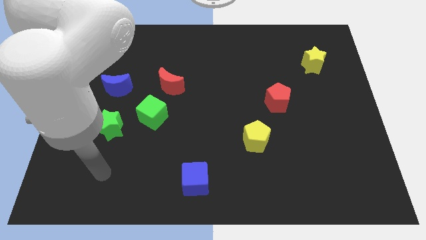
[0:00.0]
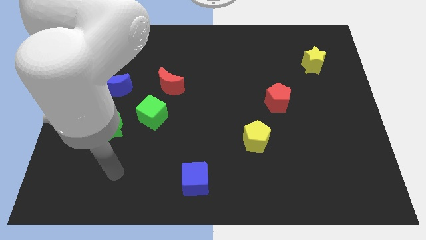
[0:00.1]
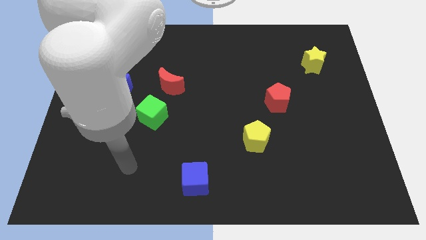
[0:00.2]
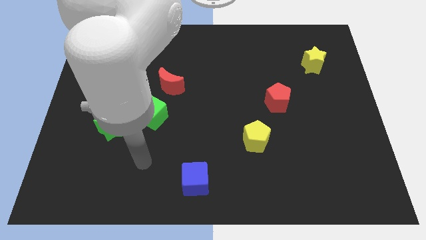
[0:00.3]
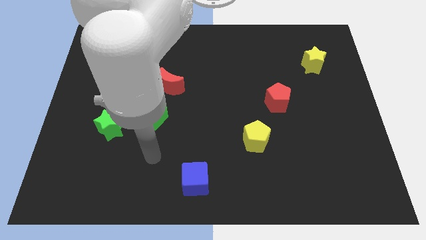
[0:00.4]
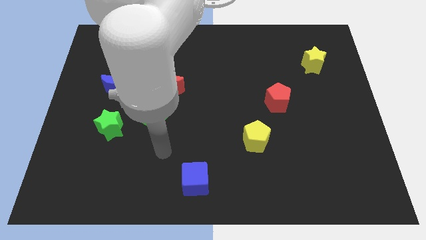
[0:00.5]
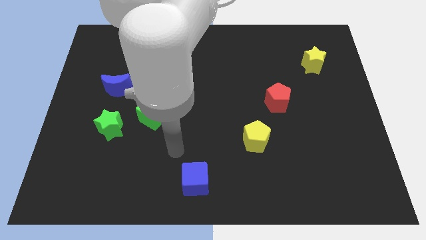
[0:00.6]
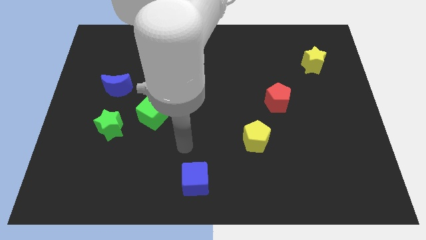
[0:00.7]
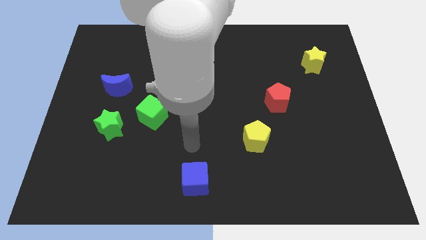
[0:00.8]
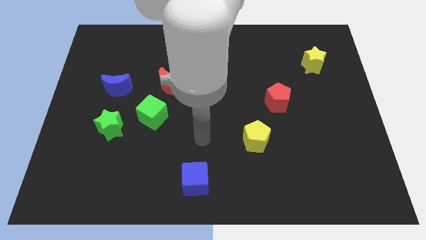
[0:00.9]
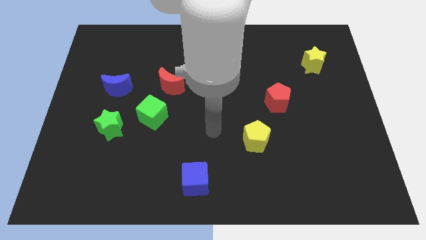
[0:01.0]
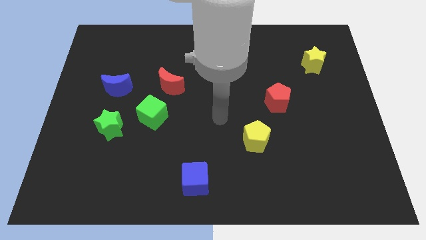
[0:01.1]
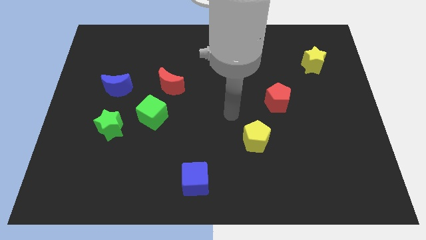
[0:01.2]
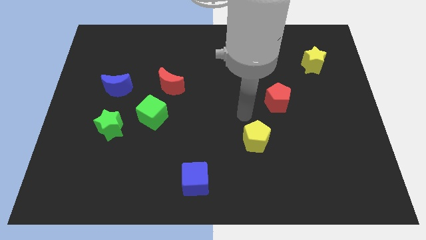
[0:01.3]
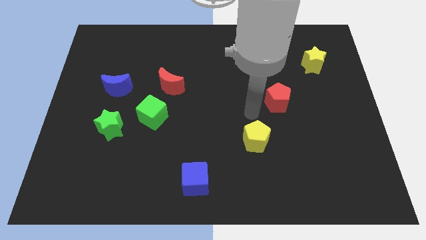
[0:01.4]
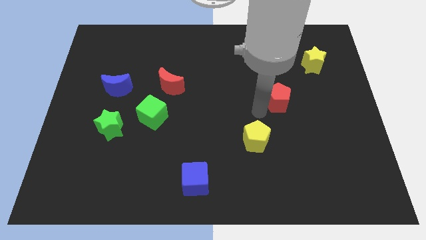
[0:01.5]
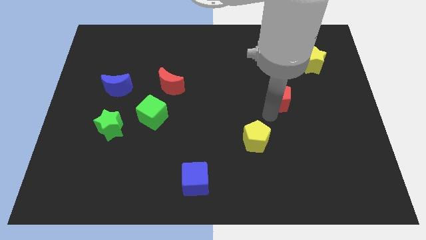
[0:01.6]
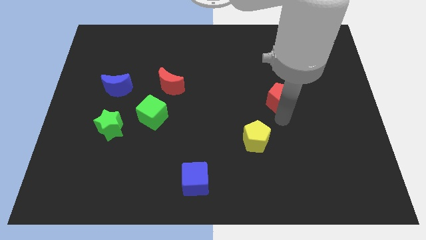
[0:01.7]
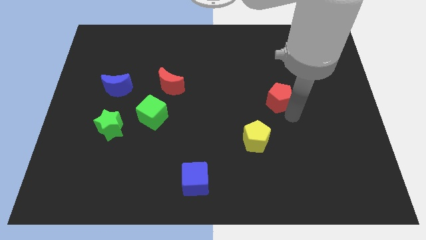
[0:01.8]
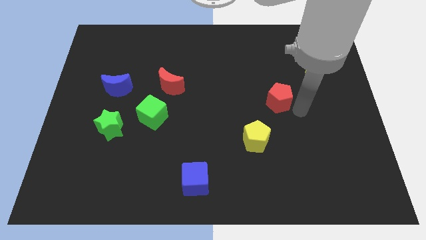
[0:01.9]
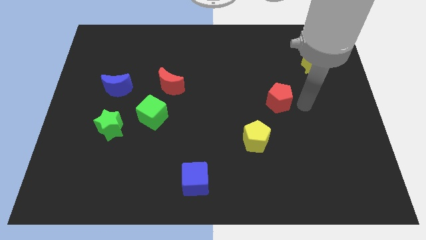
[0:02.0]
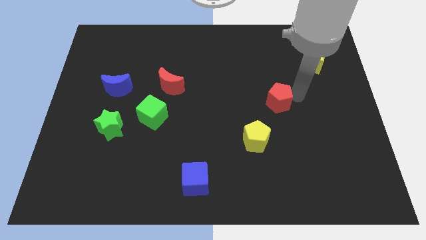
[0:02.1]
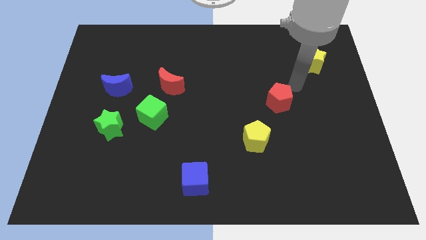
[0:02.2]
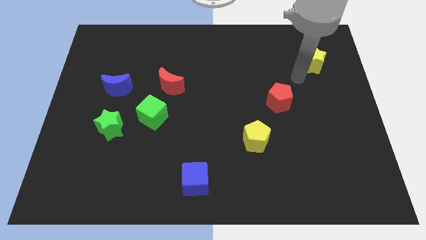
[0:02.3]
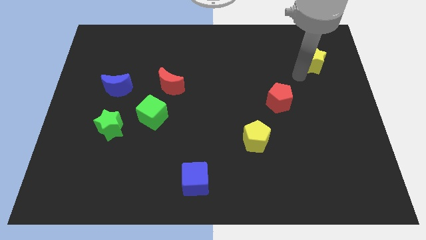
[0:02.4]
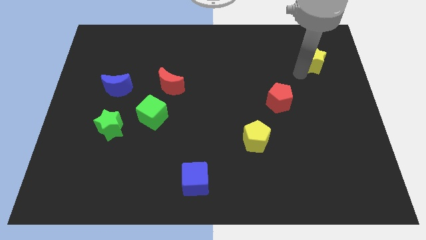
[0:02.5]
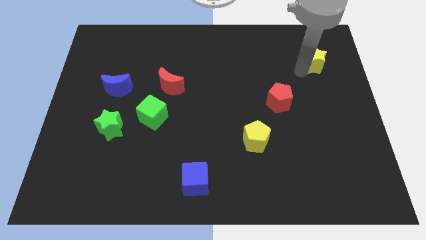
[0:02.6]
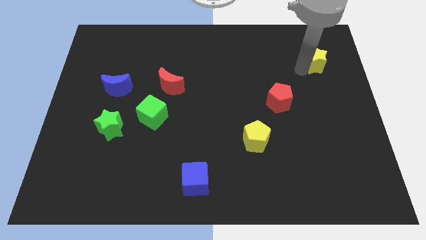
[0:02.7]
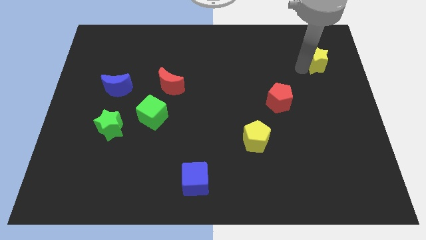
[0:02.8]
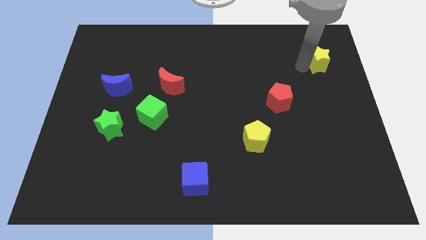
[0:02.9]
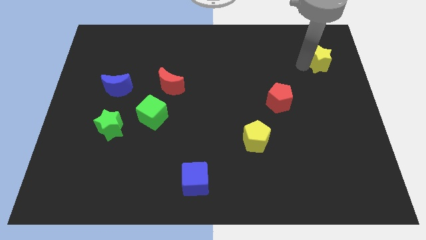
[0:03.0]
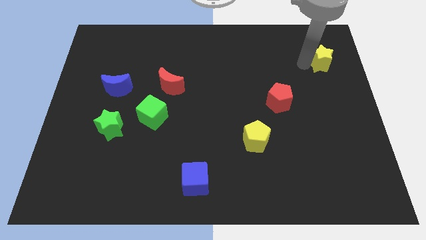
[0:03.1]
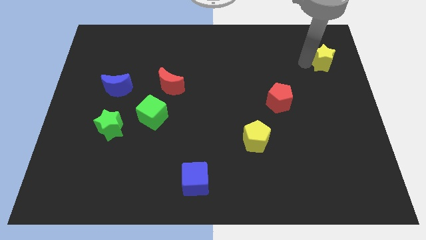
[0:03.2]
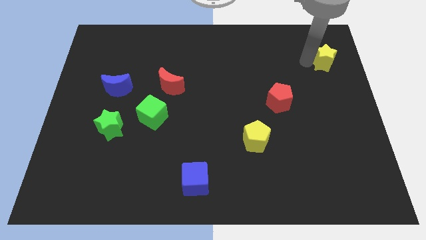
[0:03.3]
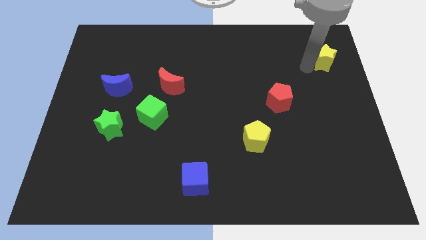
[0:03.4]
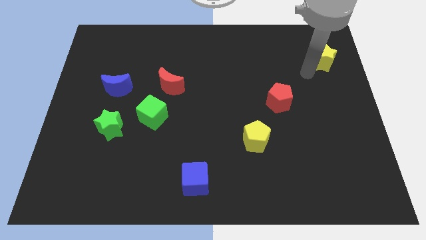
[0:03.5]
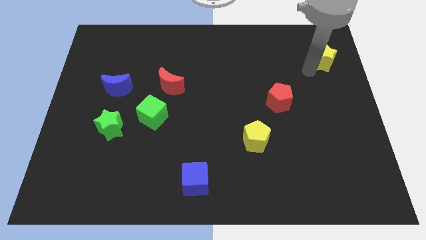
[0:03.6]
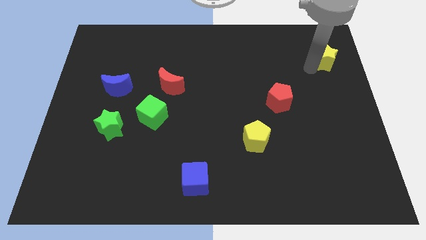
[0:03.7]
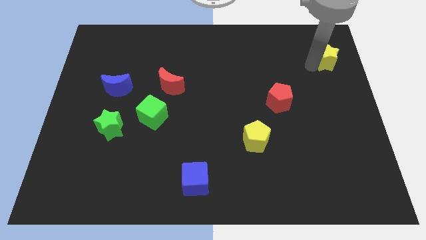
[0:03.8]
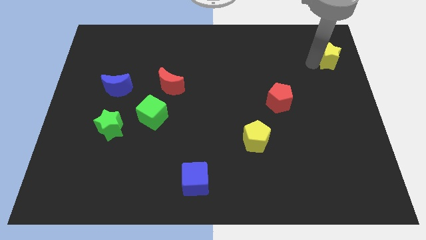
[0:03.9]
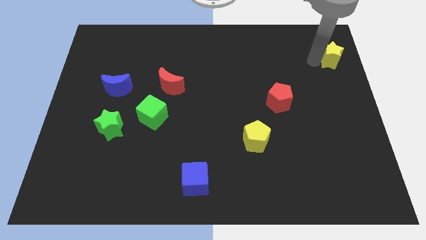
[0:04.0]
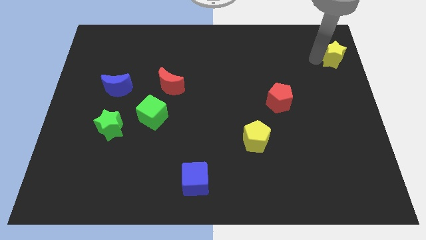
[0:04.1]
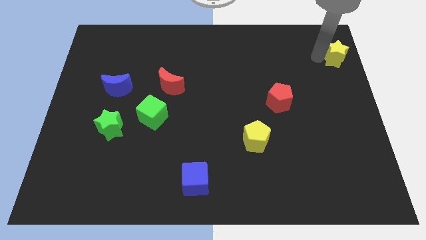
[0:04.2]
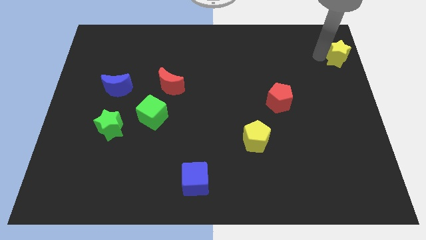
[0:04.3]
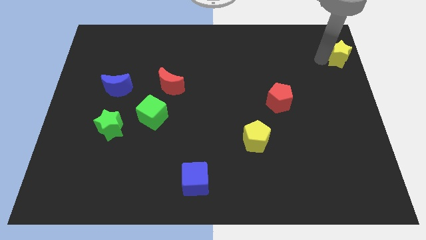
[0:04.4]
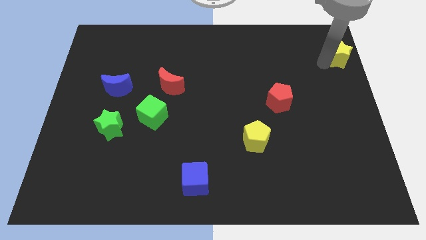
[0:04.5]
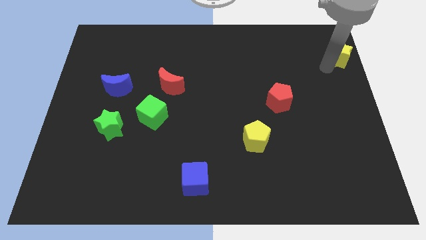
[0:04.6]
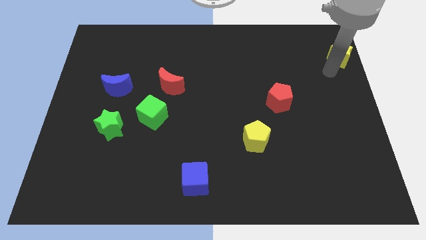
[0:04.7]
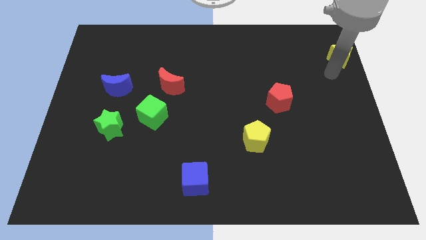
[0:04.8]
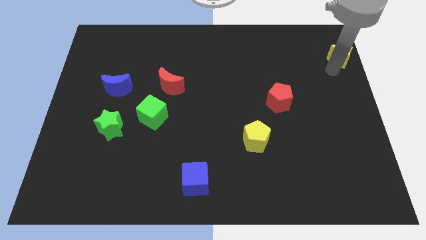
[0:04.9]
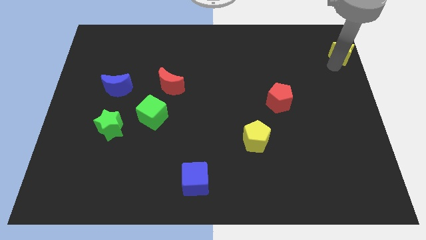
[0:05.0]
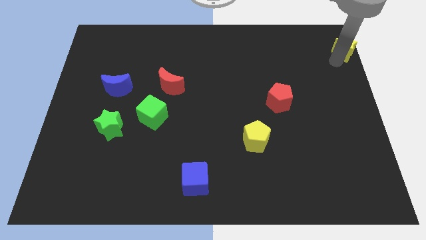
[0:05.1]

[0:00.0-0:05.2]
push the yellow star to the top right of the board

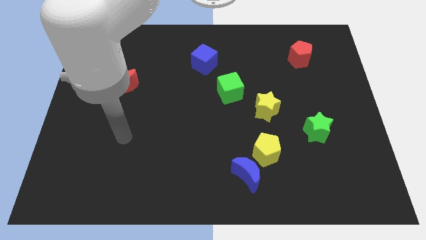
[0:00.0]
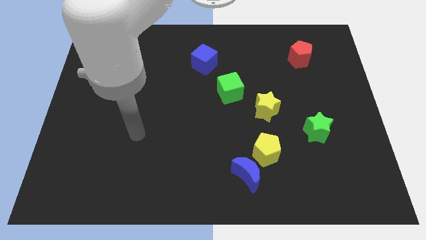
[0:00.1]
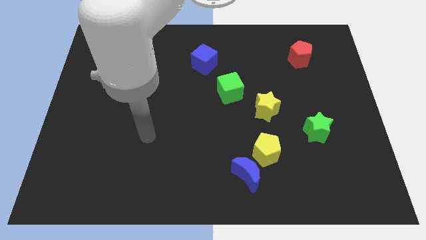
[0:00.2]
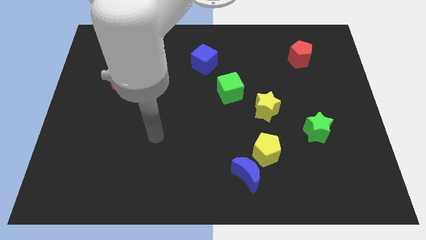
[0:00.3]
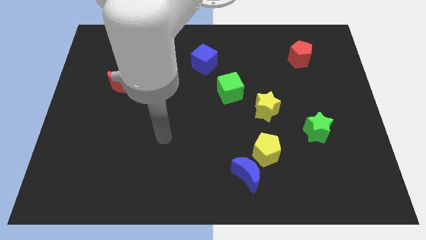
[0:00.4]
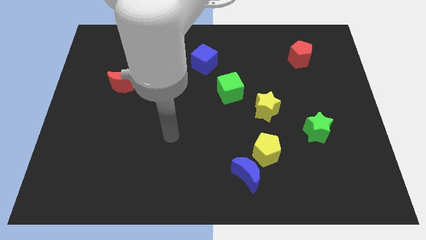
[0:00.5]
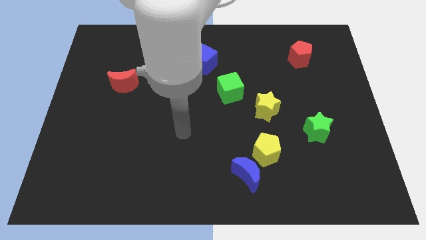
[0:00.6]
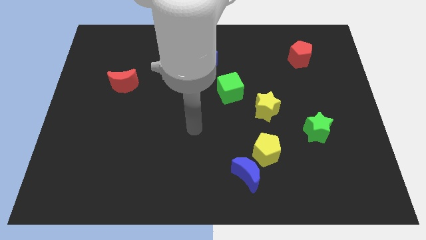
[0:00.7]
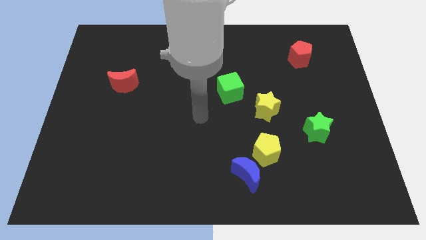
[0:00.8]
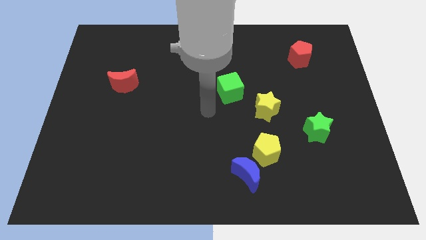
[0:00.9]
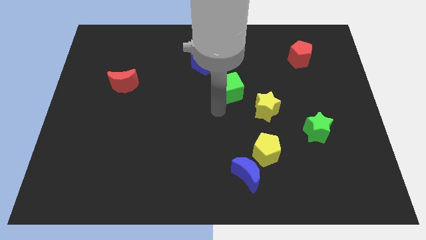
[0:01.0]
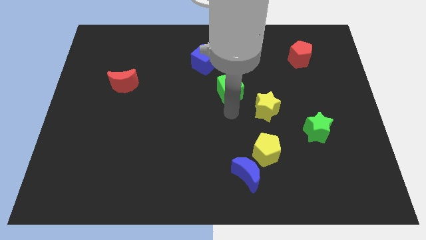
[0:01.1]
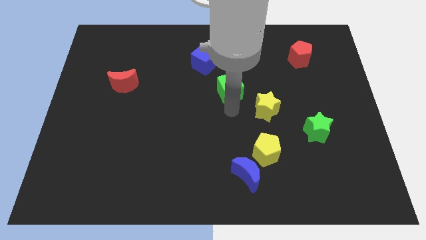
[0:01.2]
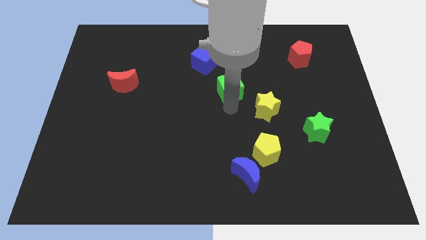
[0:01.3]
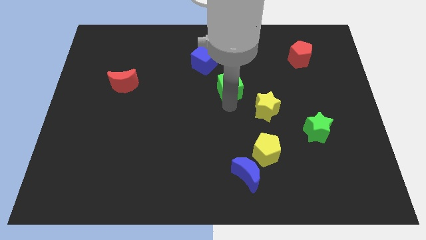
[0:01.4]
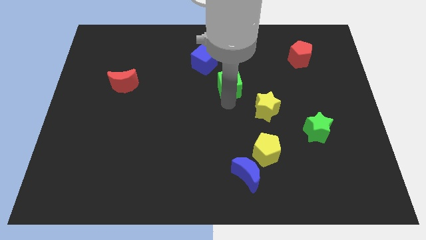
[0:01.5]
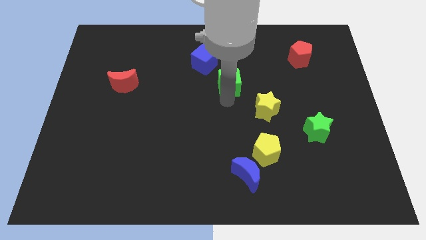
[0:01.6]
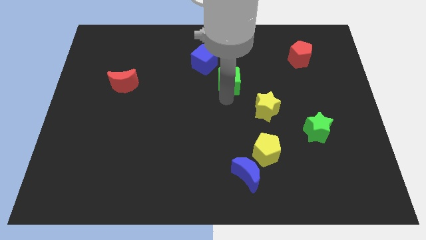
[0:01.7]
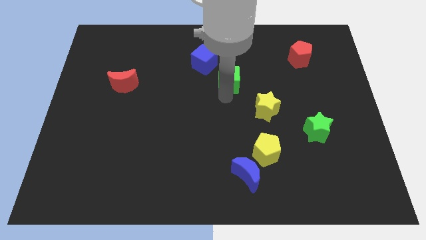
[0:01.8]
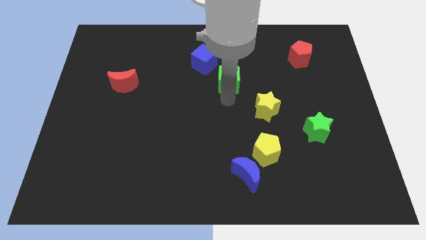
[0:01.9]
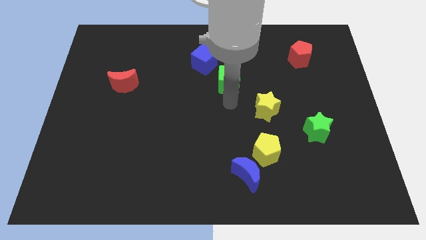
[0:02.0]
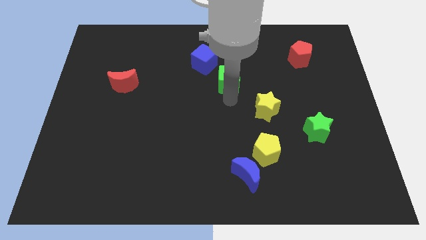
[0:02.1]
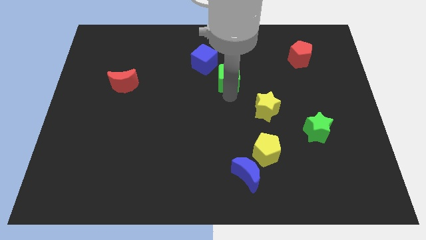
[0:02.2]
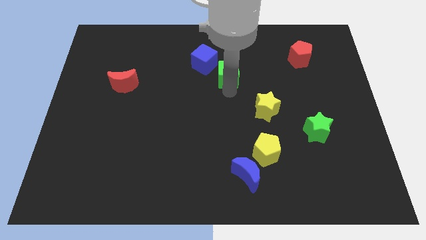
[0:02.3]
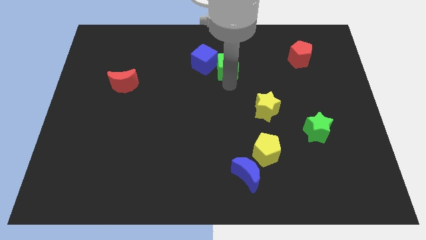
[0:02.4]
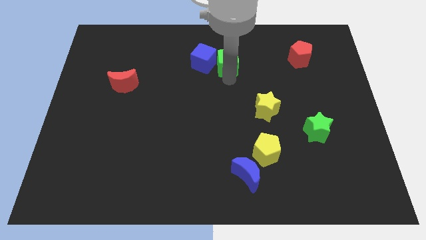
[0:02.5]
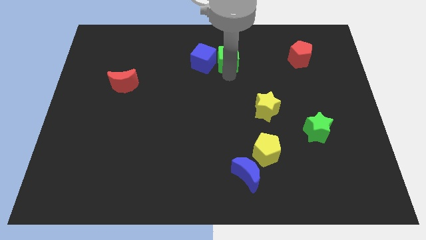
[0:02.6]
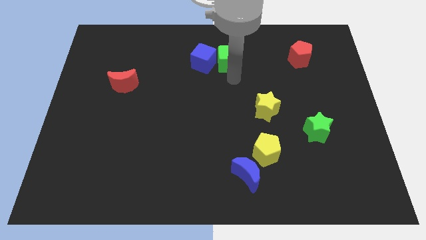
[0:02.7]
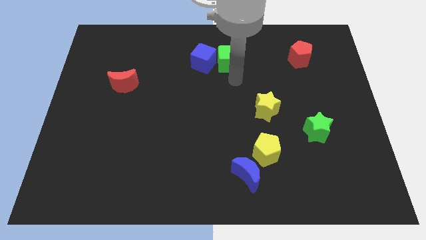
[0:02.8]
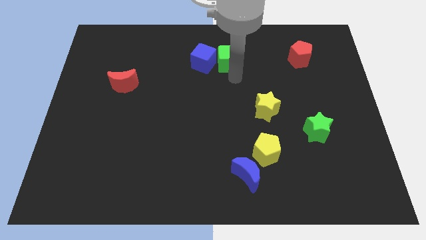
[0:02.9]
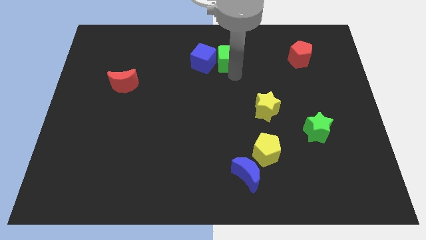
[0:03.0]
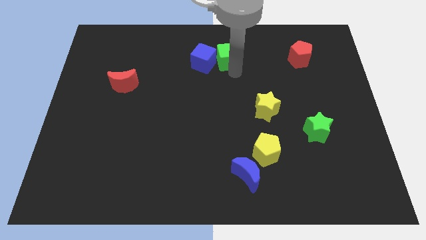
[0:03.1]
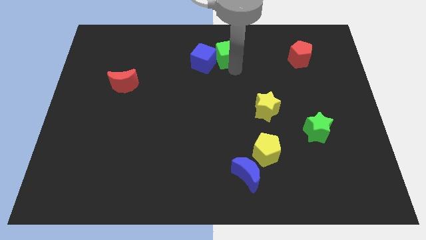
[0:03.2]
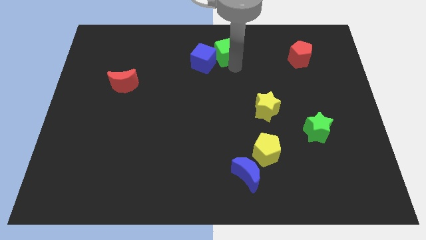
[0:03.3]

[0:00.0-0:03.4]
move the green cube to the towards your base
